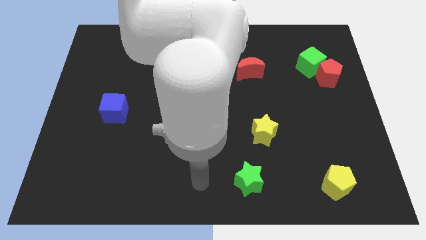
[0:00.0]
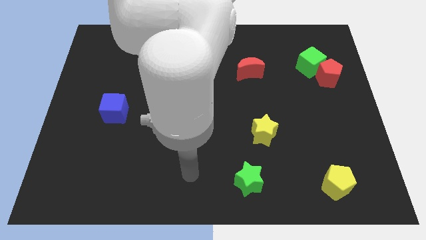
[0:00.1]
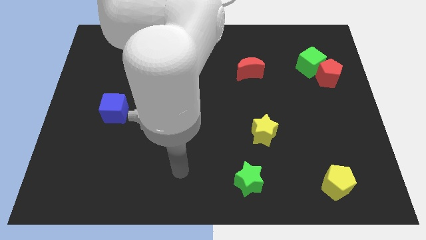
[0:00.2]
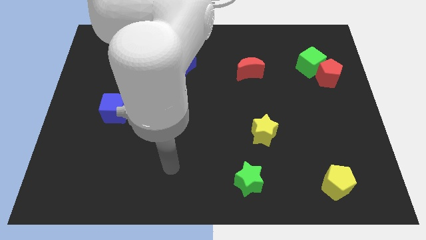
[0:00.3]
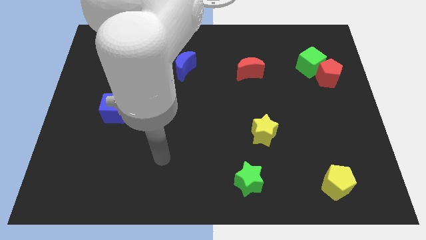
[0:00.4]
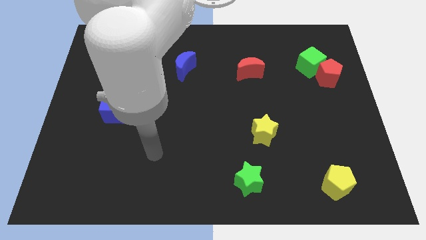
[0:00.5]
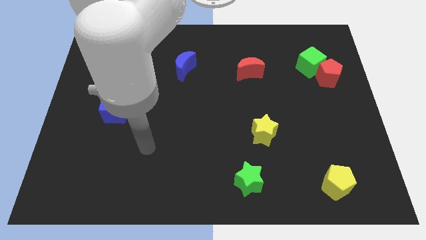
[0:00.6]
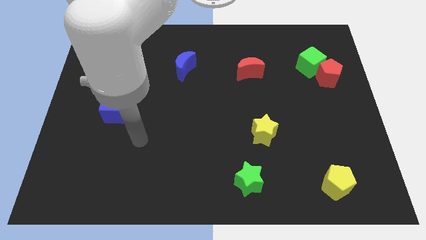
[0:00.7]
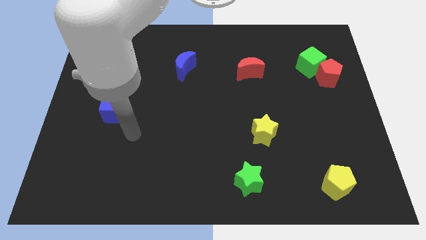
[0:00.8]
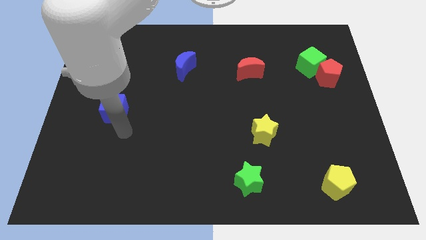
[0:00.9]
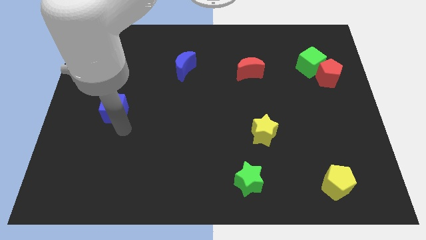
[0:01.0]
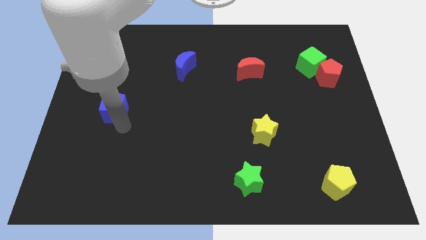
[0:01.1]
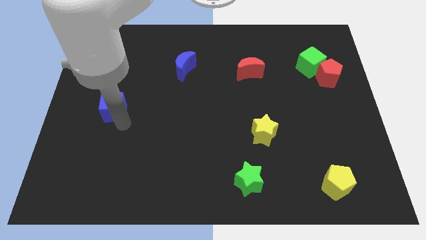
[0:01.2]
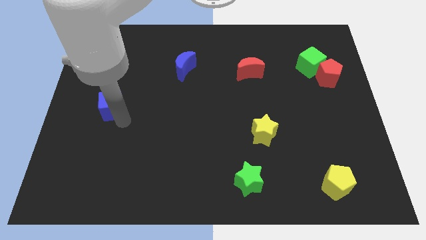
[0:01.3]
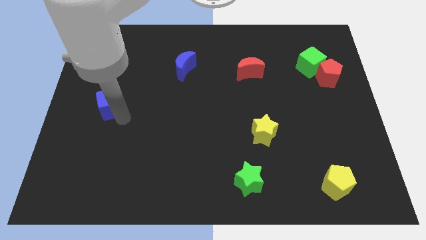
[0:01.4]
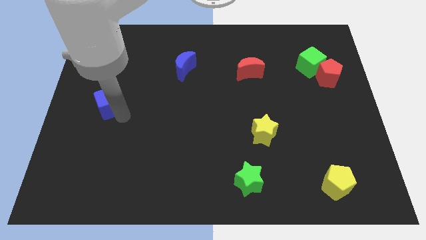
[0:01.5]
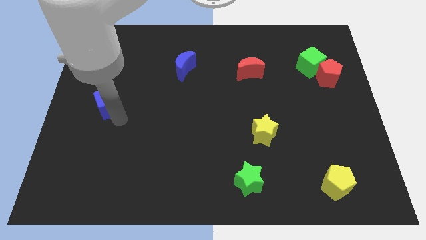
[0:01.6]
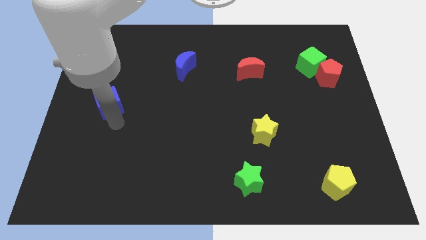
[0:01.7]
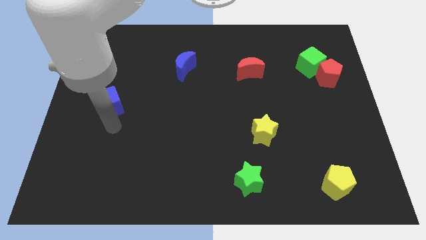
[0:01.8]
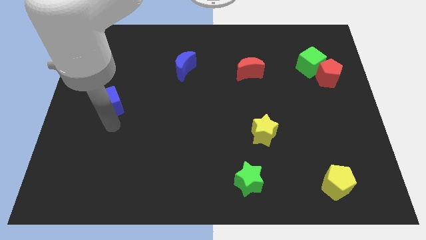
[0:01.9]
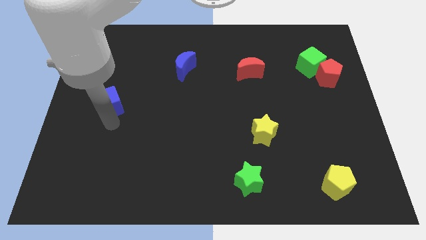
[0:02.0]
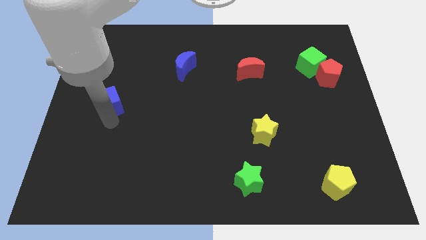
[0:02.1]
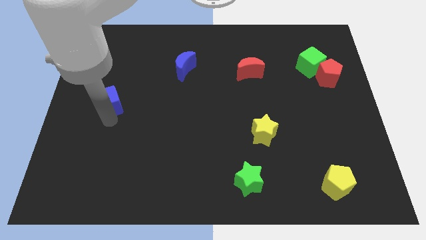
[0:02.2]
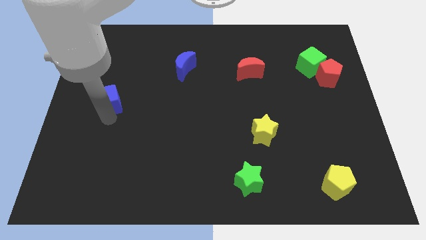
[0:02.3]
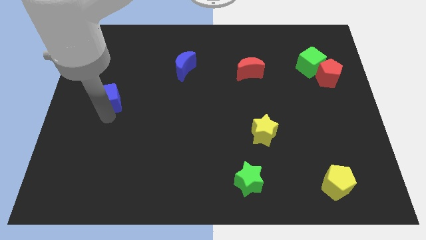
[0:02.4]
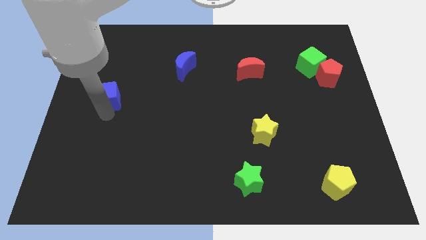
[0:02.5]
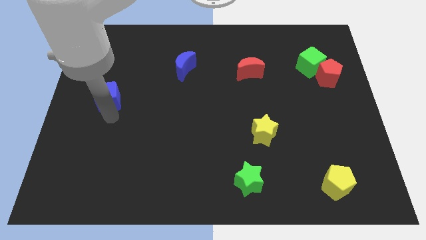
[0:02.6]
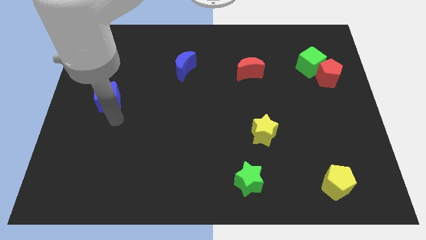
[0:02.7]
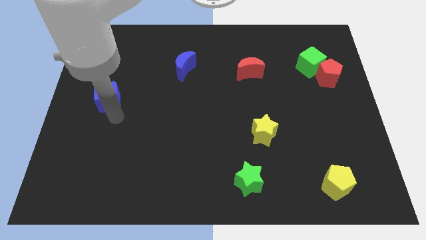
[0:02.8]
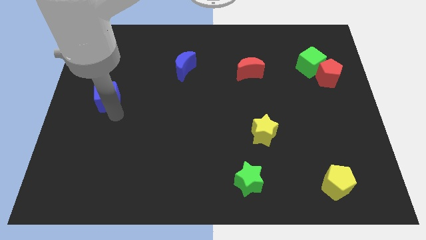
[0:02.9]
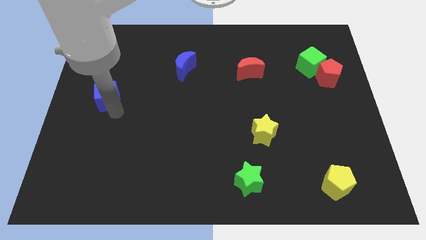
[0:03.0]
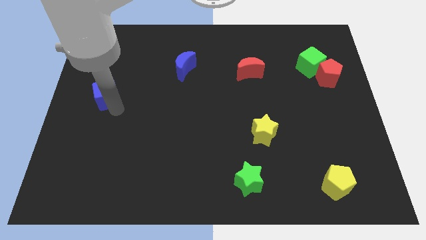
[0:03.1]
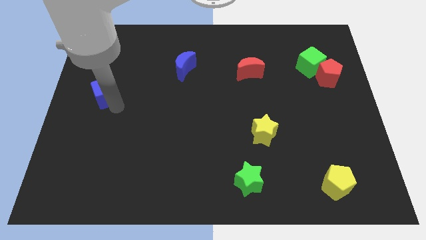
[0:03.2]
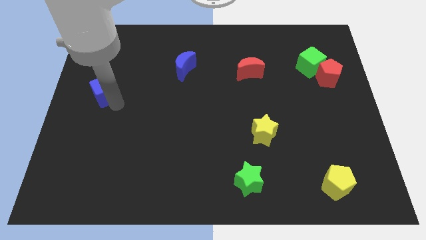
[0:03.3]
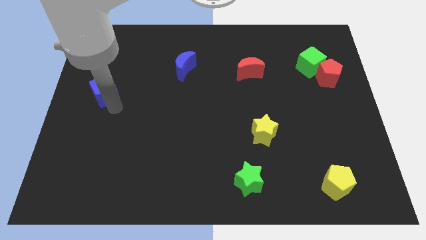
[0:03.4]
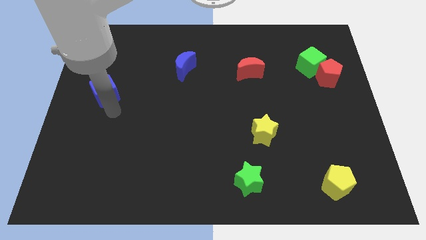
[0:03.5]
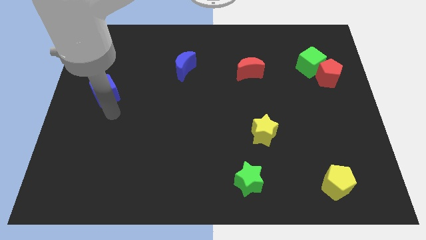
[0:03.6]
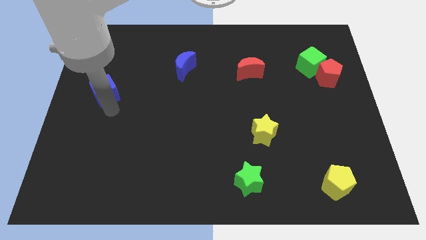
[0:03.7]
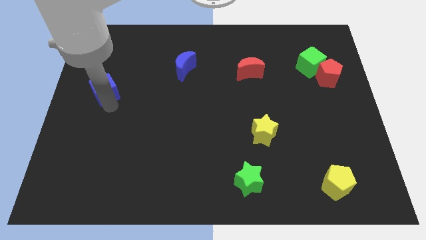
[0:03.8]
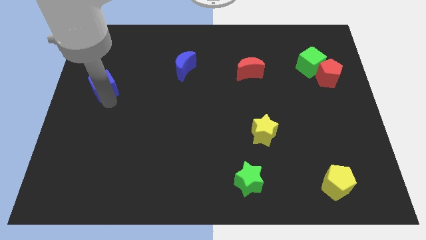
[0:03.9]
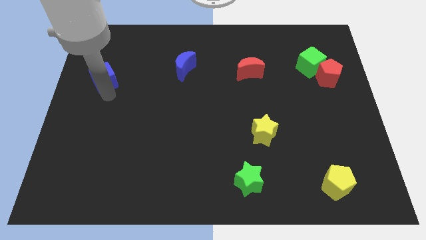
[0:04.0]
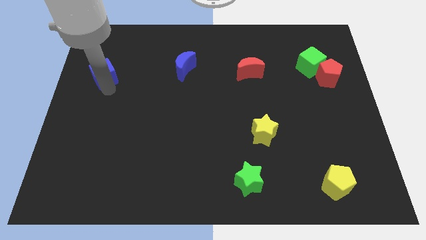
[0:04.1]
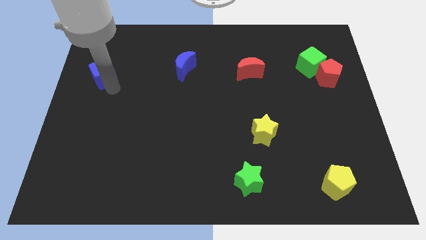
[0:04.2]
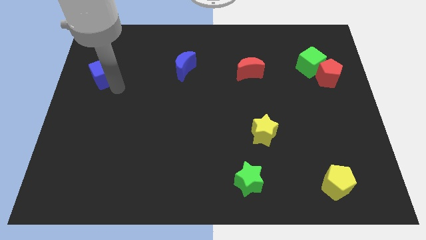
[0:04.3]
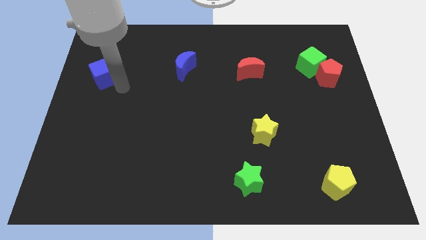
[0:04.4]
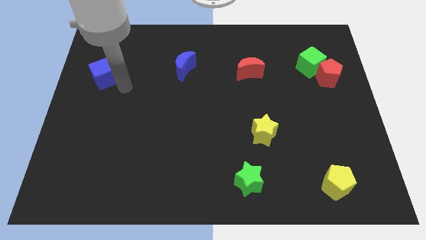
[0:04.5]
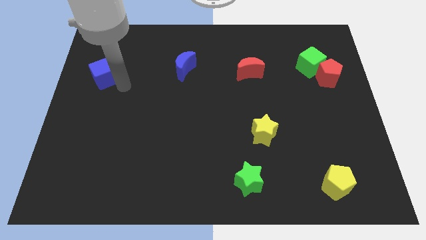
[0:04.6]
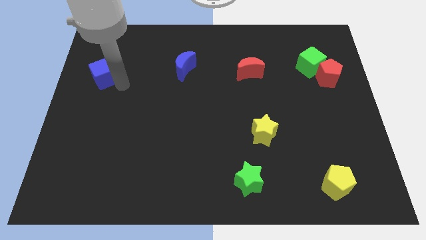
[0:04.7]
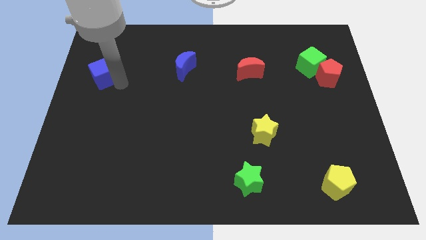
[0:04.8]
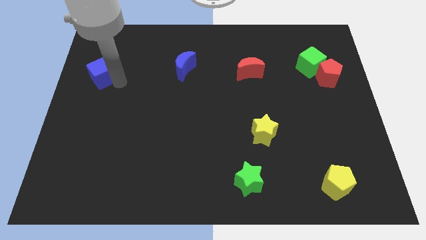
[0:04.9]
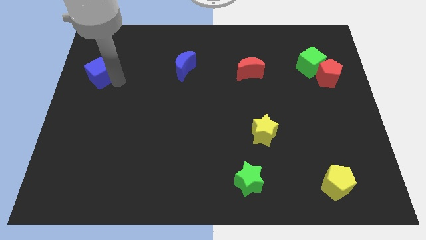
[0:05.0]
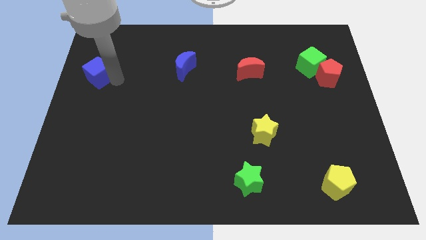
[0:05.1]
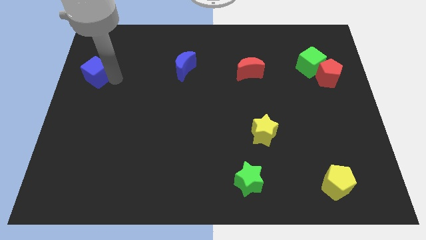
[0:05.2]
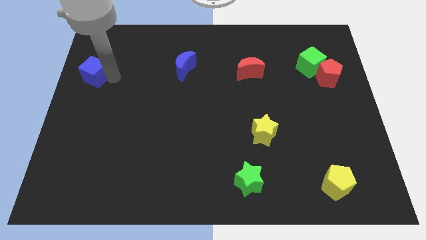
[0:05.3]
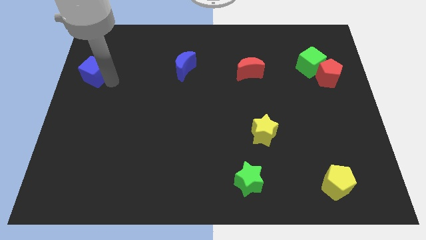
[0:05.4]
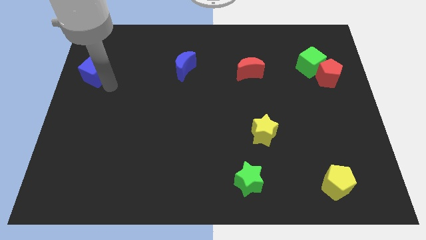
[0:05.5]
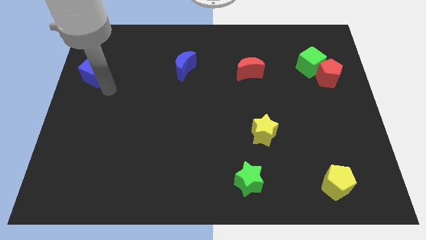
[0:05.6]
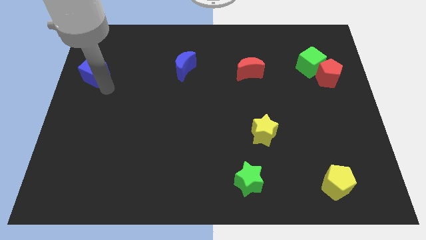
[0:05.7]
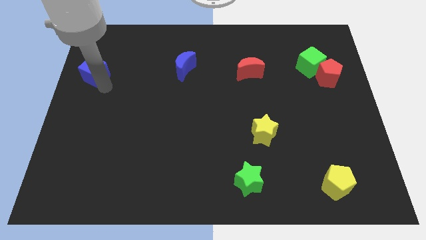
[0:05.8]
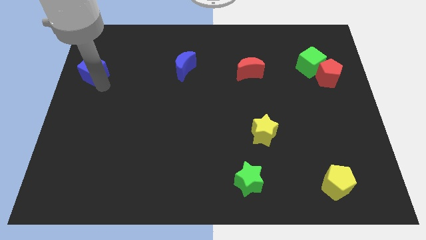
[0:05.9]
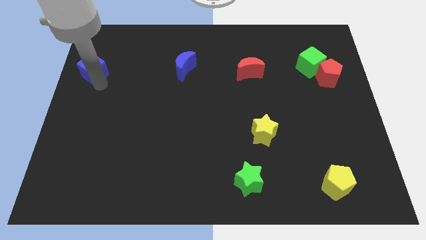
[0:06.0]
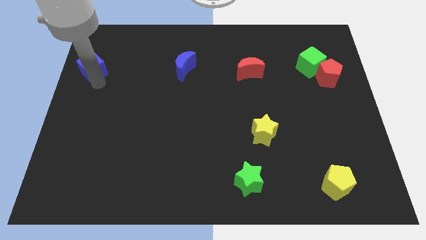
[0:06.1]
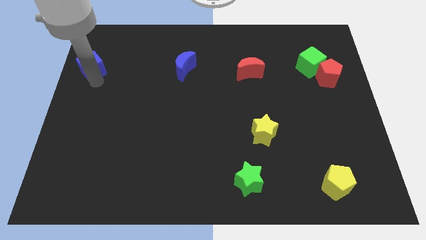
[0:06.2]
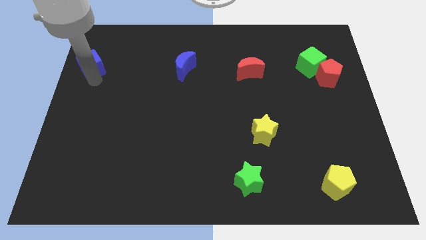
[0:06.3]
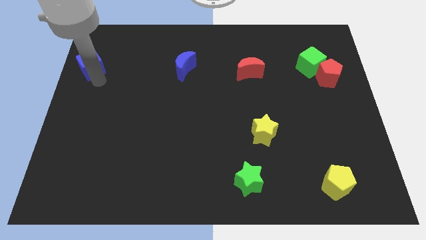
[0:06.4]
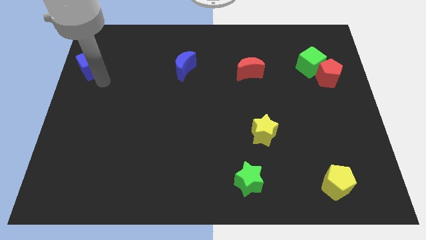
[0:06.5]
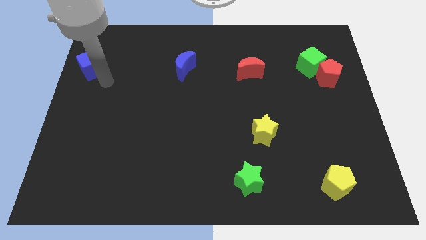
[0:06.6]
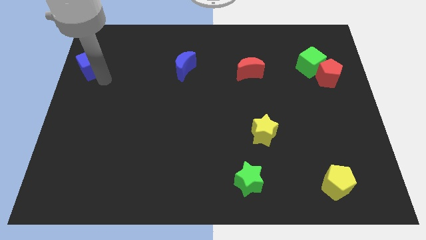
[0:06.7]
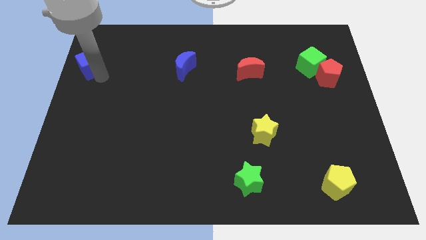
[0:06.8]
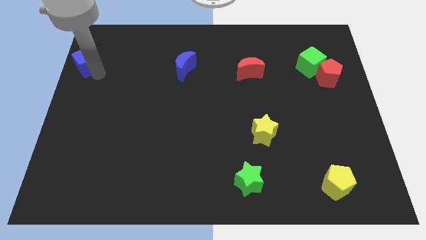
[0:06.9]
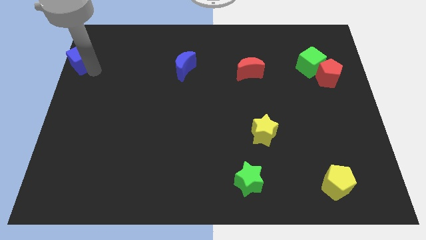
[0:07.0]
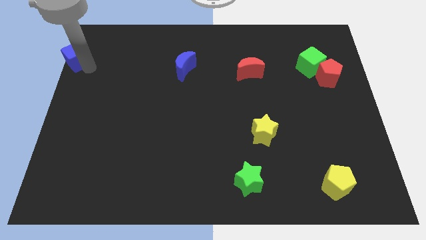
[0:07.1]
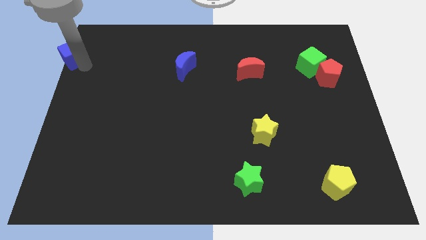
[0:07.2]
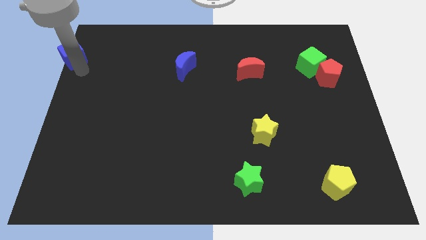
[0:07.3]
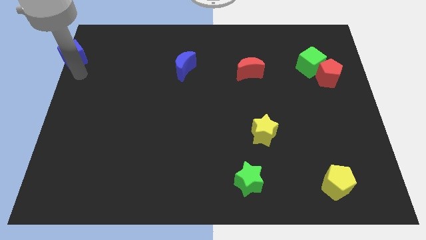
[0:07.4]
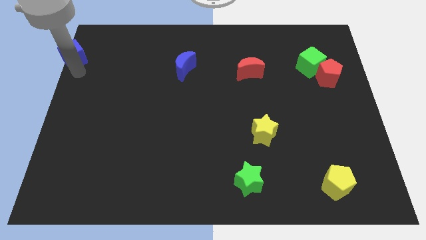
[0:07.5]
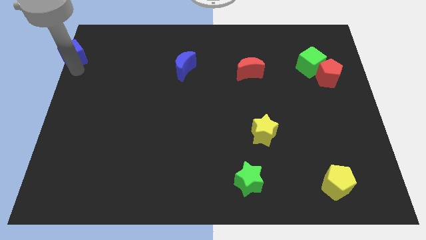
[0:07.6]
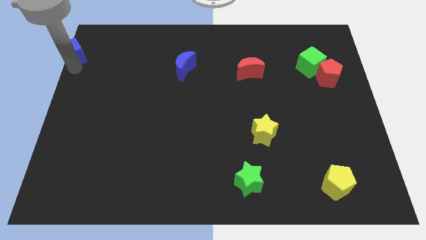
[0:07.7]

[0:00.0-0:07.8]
slide the blue cube to the top left

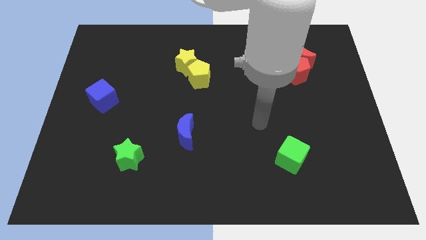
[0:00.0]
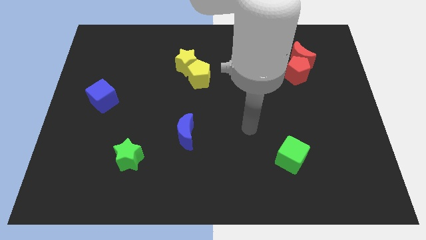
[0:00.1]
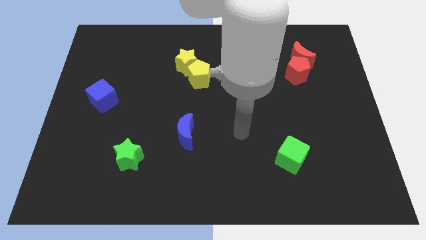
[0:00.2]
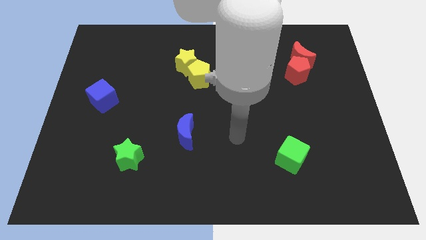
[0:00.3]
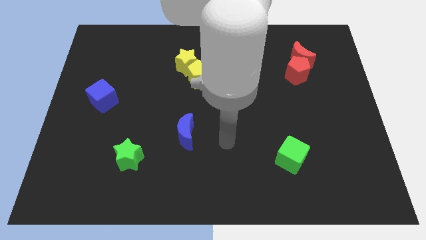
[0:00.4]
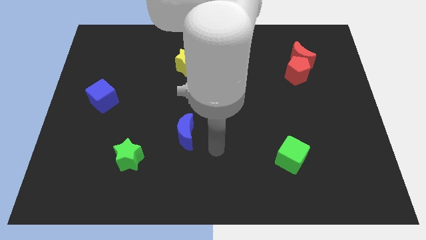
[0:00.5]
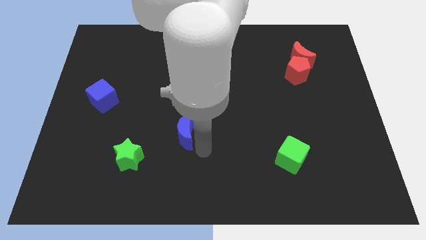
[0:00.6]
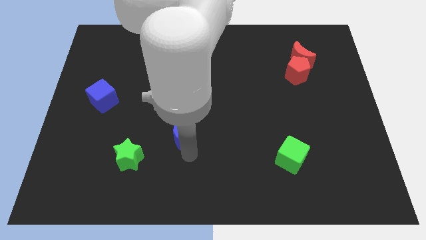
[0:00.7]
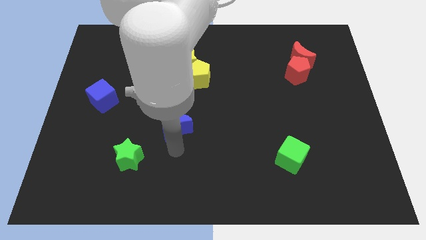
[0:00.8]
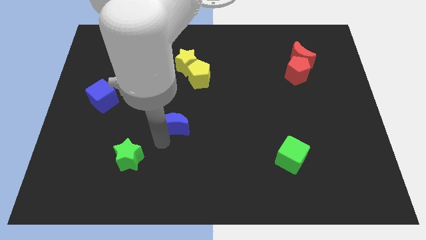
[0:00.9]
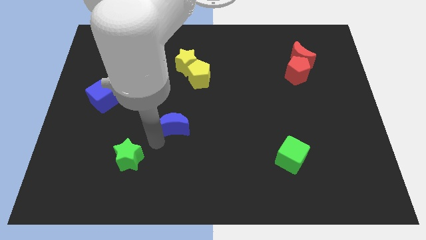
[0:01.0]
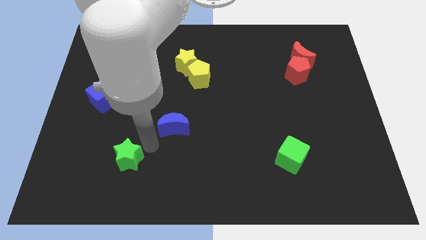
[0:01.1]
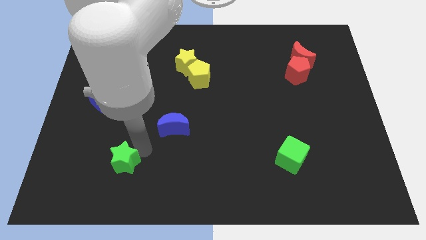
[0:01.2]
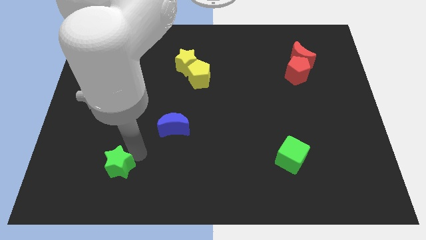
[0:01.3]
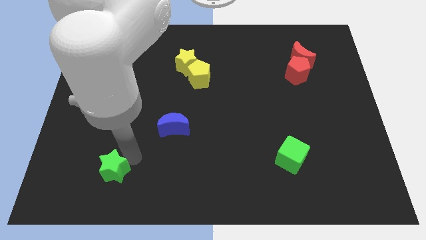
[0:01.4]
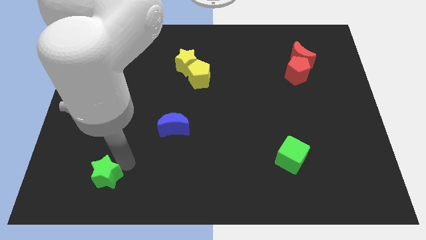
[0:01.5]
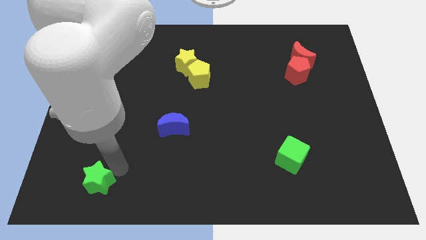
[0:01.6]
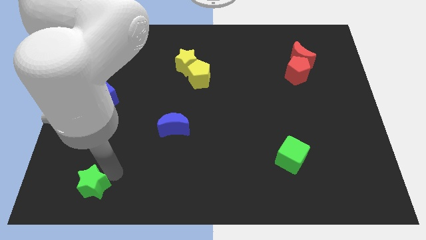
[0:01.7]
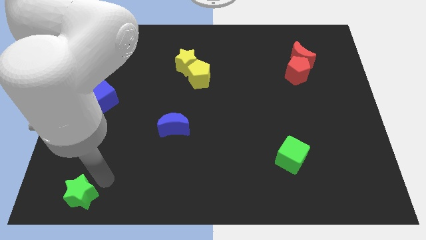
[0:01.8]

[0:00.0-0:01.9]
slide the green star to the bottom left of the board
